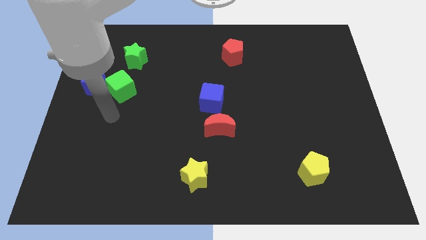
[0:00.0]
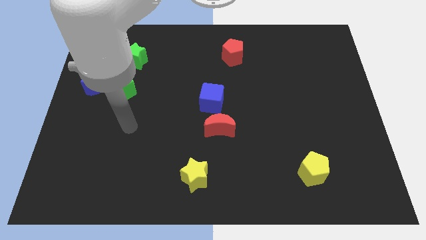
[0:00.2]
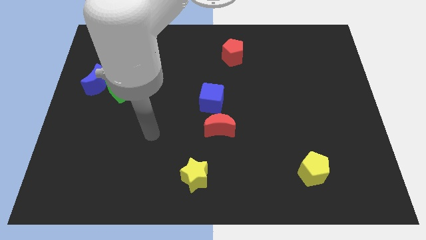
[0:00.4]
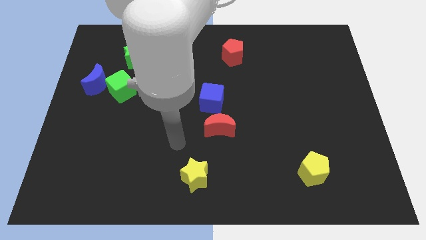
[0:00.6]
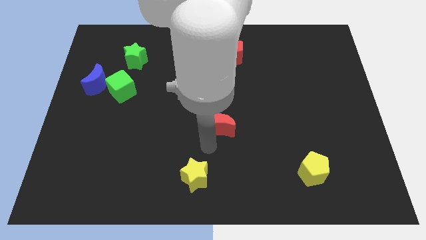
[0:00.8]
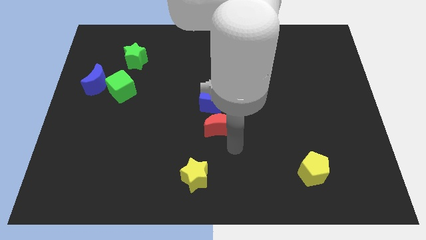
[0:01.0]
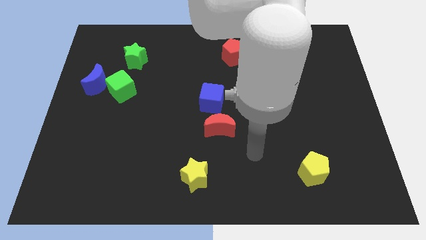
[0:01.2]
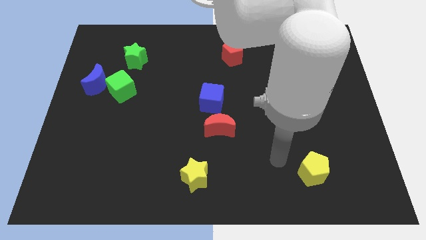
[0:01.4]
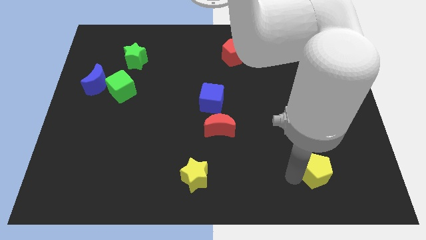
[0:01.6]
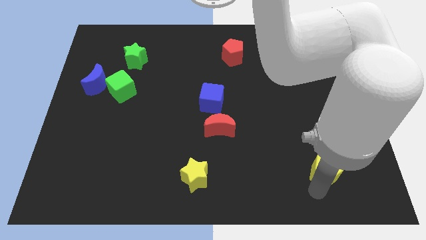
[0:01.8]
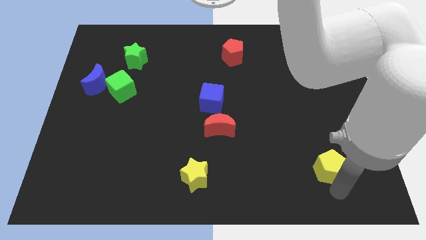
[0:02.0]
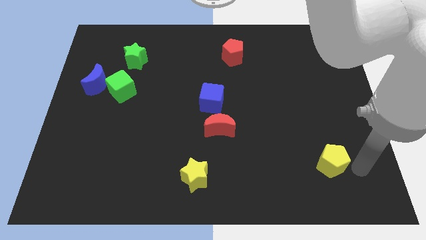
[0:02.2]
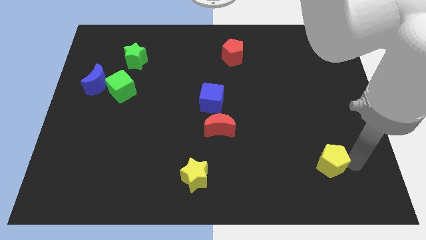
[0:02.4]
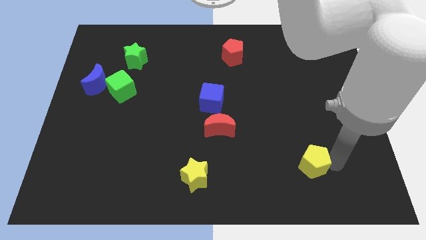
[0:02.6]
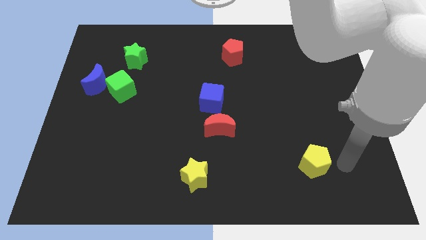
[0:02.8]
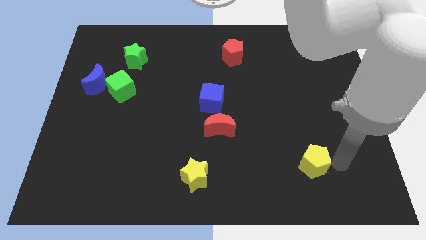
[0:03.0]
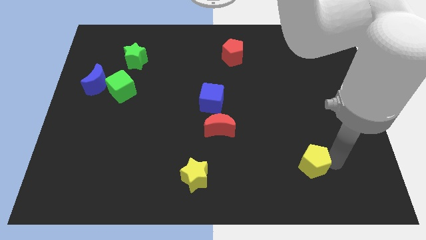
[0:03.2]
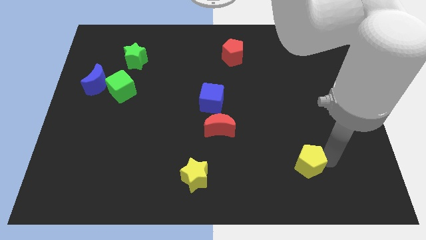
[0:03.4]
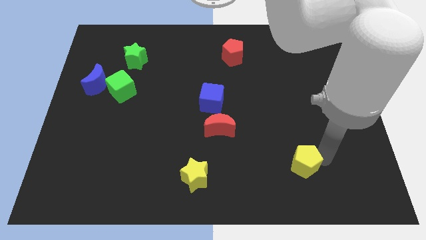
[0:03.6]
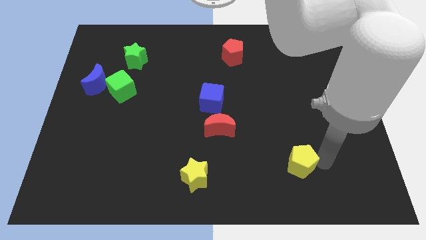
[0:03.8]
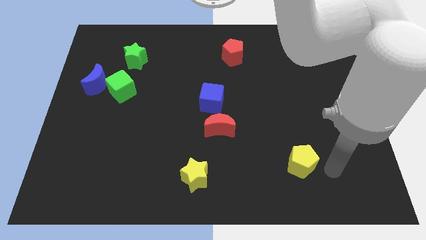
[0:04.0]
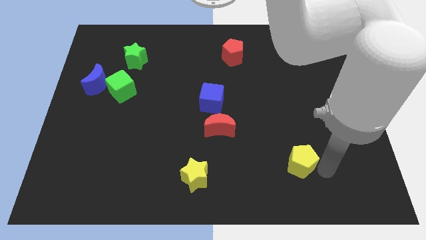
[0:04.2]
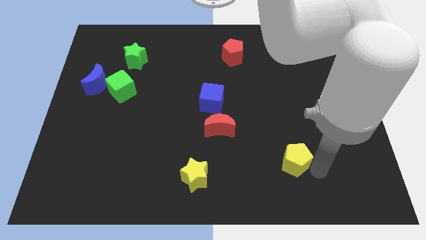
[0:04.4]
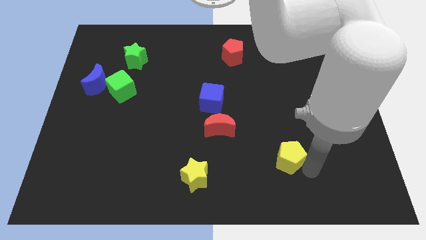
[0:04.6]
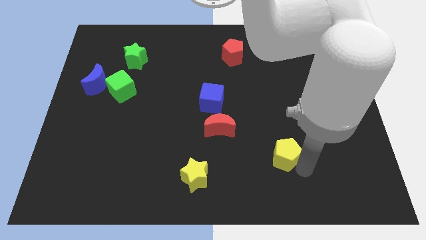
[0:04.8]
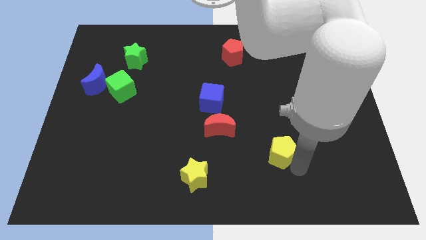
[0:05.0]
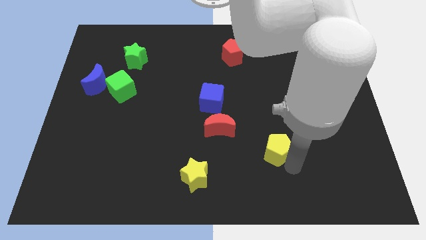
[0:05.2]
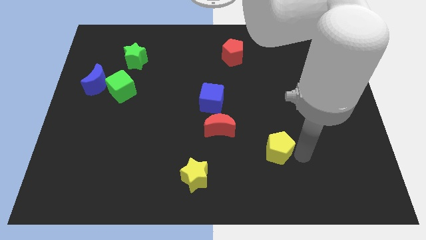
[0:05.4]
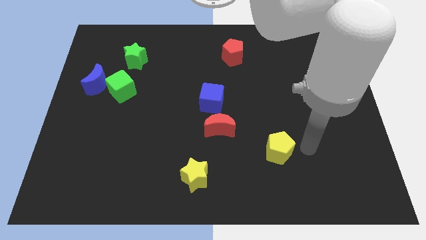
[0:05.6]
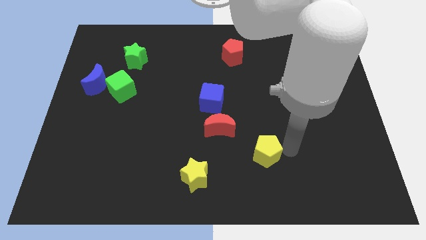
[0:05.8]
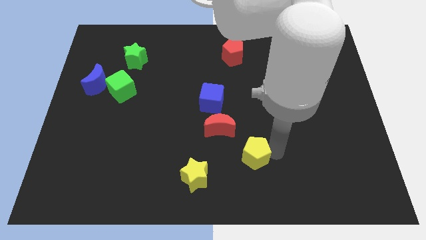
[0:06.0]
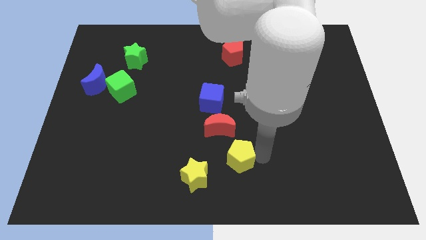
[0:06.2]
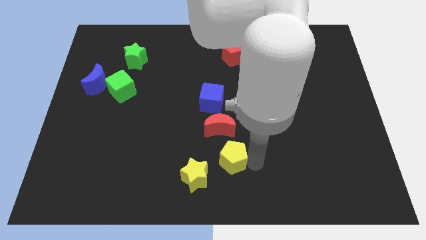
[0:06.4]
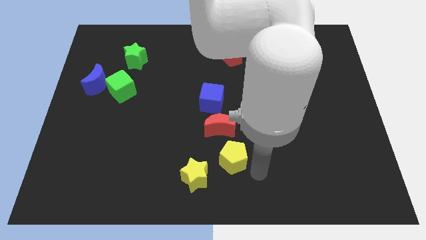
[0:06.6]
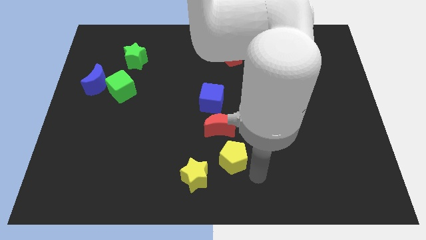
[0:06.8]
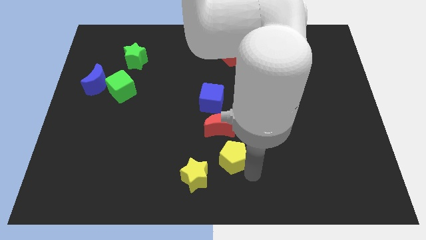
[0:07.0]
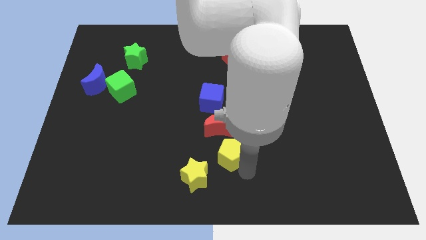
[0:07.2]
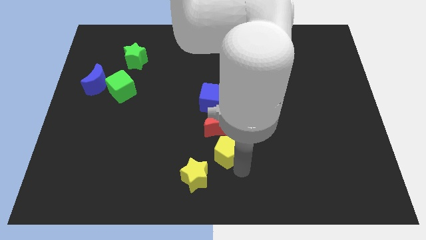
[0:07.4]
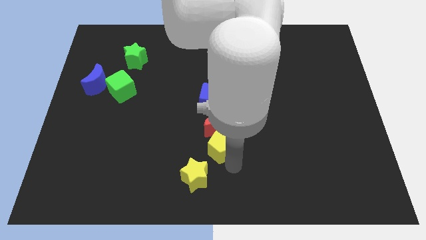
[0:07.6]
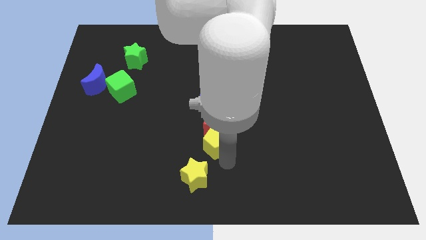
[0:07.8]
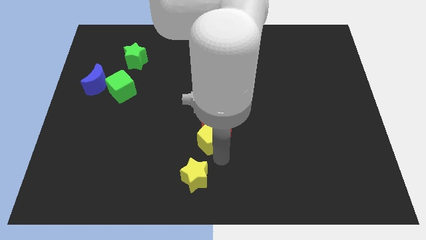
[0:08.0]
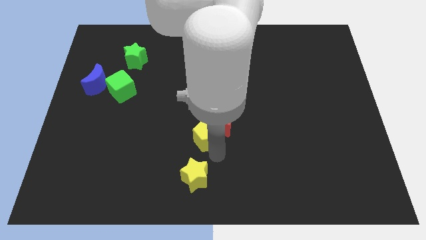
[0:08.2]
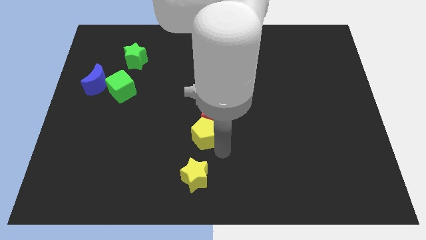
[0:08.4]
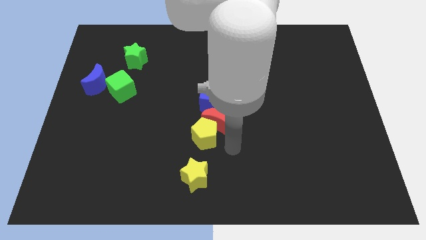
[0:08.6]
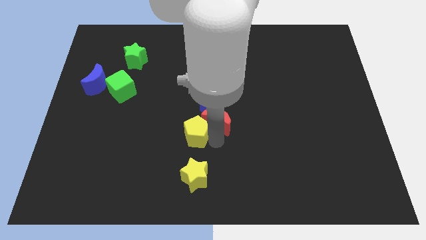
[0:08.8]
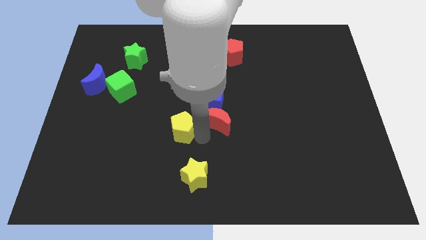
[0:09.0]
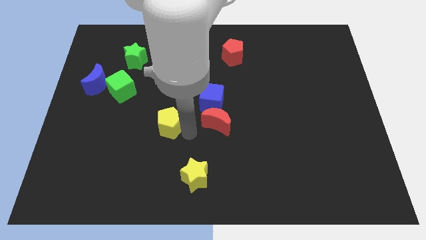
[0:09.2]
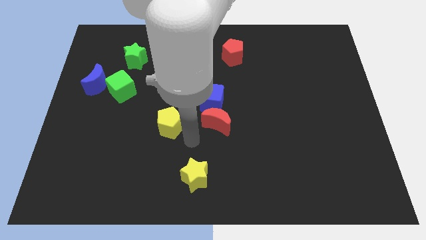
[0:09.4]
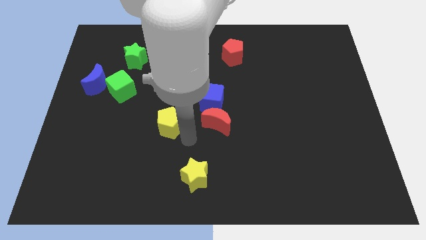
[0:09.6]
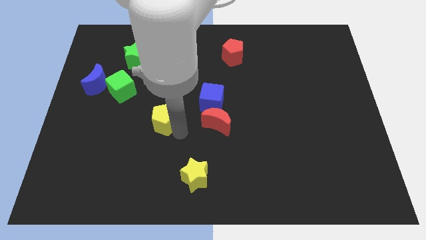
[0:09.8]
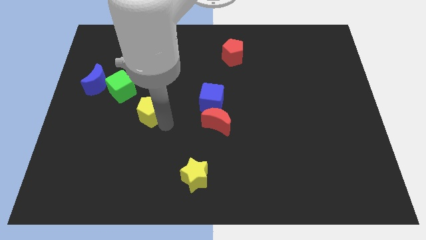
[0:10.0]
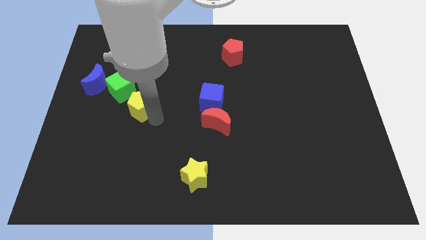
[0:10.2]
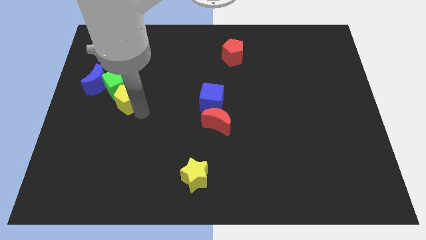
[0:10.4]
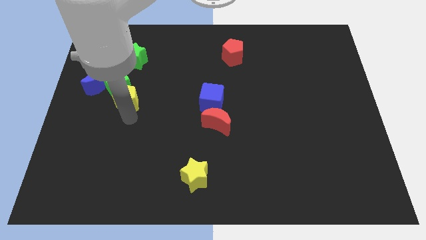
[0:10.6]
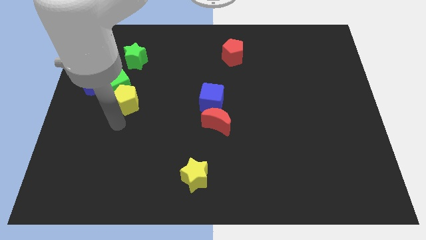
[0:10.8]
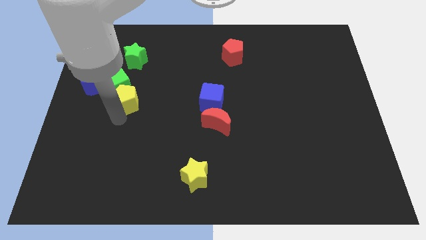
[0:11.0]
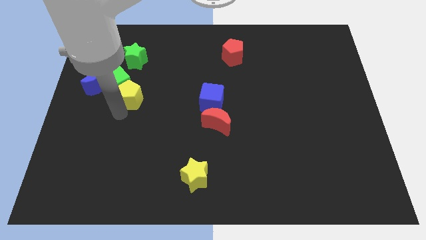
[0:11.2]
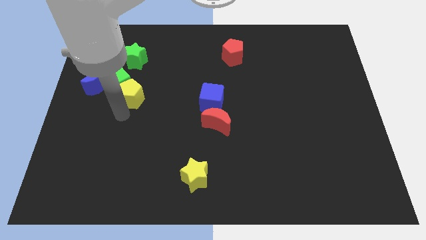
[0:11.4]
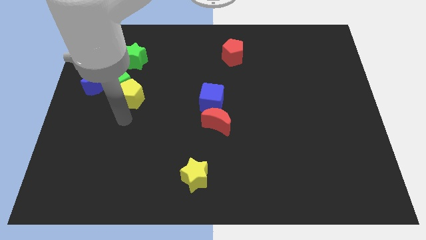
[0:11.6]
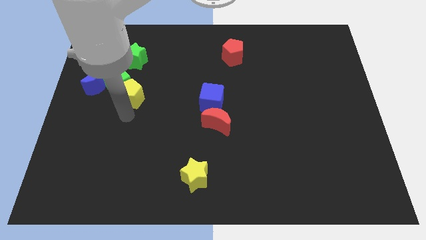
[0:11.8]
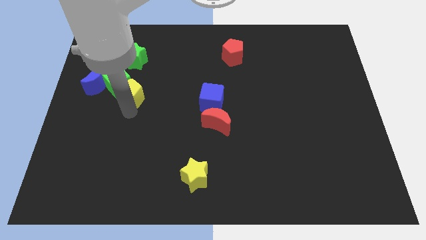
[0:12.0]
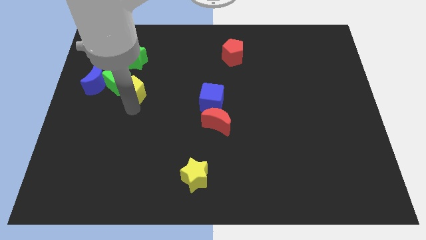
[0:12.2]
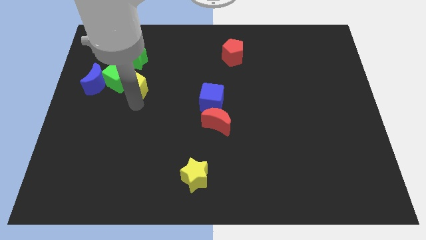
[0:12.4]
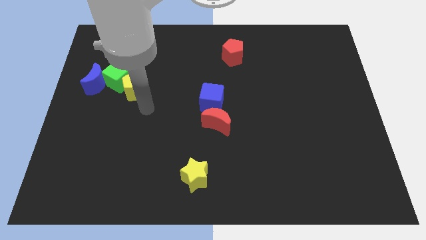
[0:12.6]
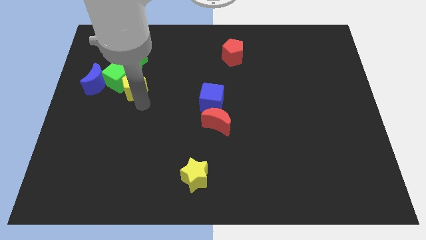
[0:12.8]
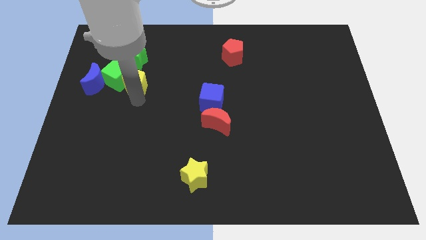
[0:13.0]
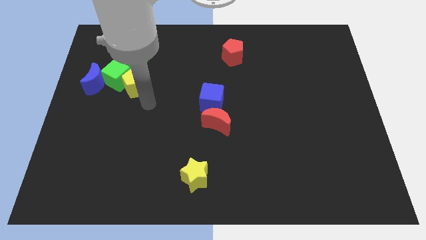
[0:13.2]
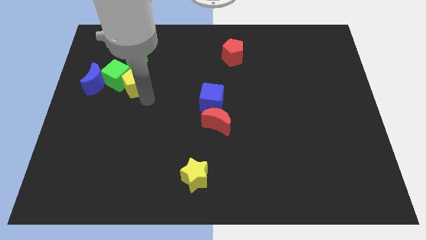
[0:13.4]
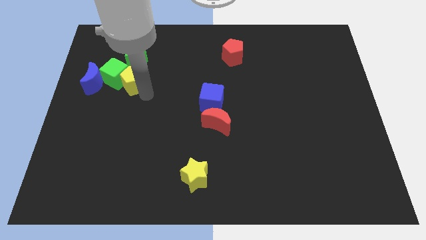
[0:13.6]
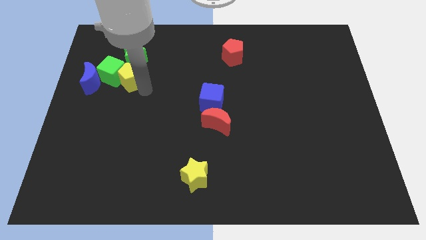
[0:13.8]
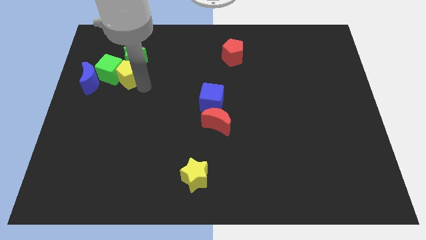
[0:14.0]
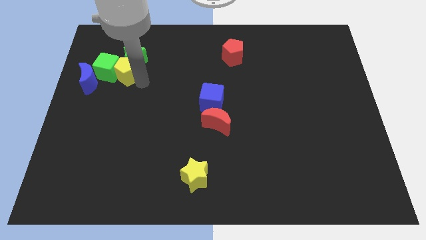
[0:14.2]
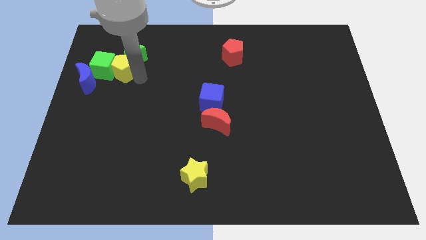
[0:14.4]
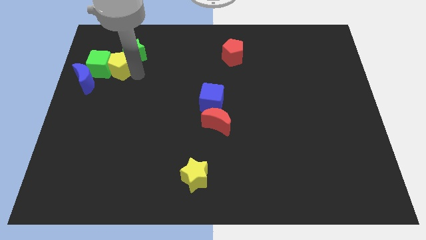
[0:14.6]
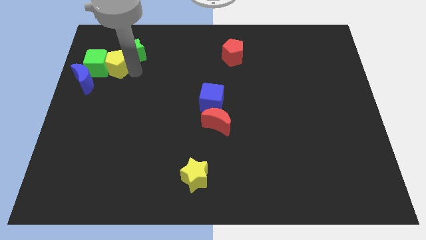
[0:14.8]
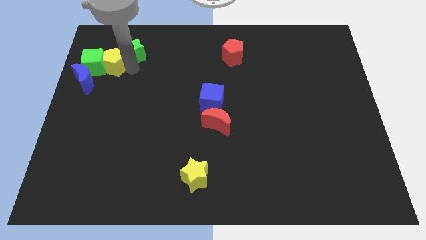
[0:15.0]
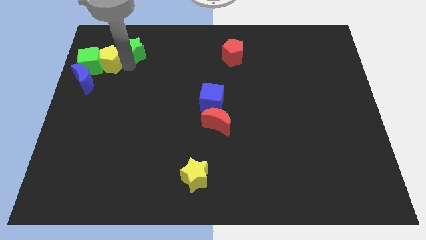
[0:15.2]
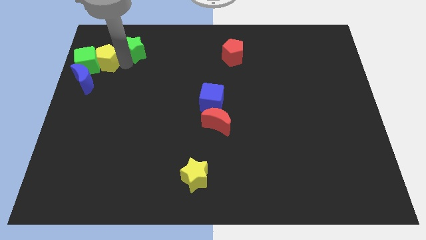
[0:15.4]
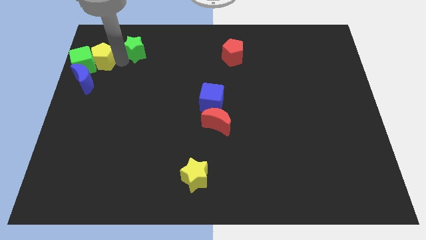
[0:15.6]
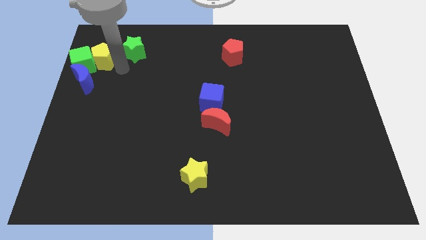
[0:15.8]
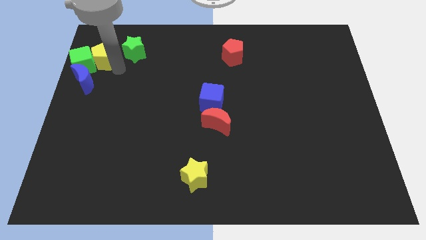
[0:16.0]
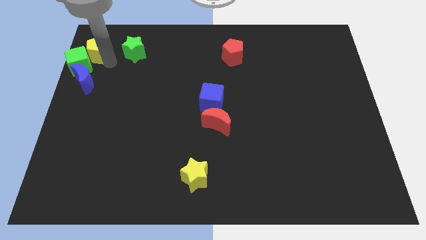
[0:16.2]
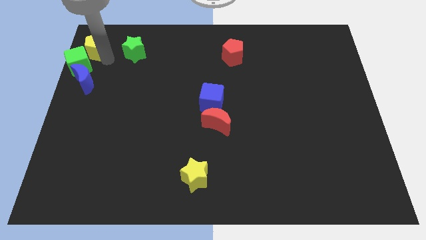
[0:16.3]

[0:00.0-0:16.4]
slide the yellow pentagon to the top left corner
